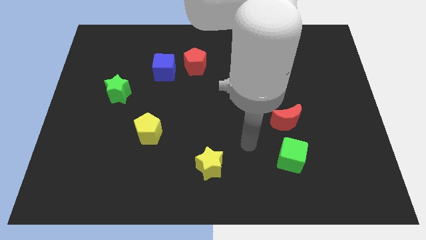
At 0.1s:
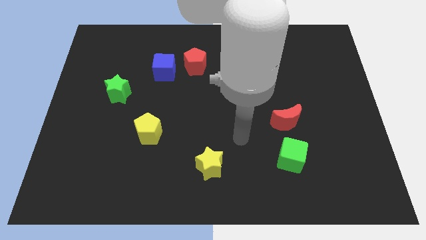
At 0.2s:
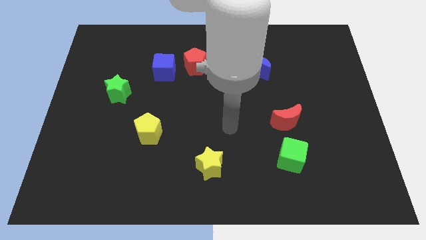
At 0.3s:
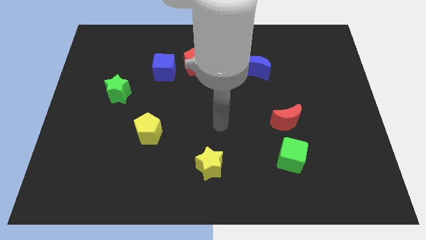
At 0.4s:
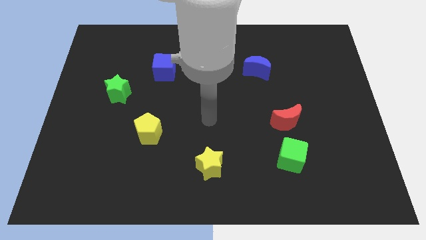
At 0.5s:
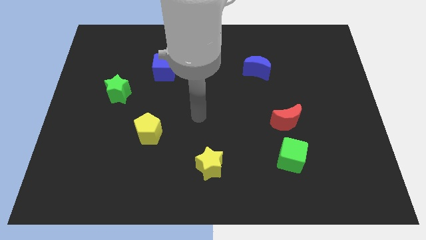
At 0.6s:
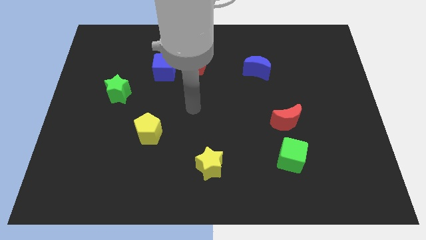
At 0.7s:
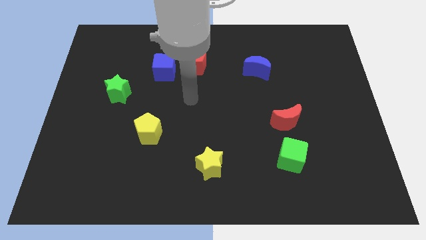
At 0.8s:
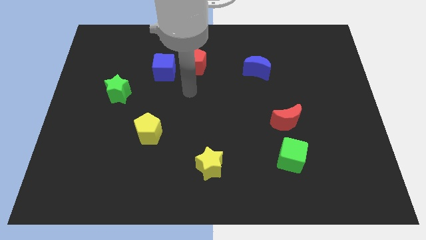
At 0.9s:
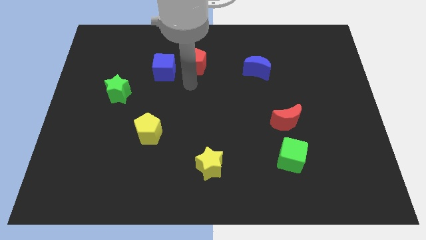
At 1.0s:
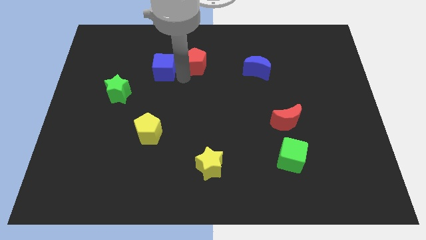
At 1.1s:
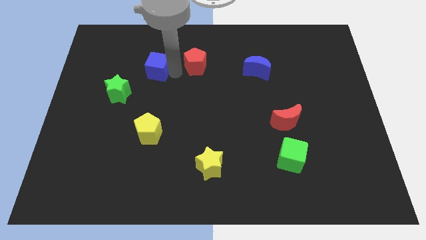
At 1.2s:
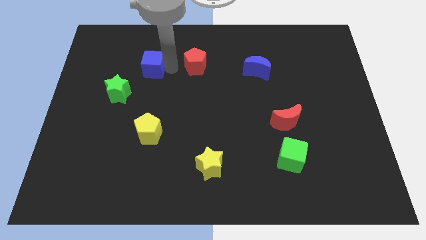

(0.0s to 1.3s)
separate the red pentagon from the blue cube

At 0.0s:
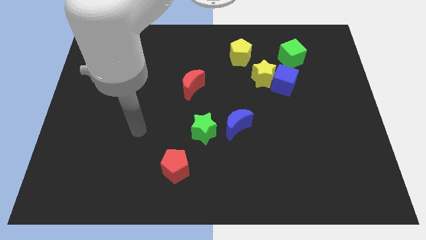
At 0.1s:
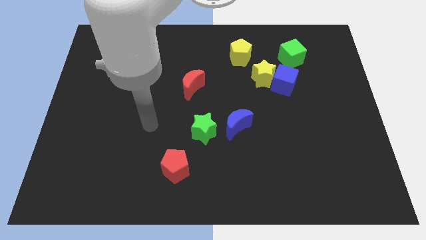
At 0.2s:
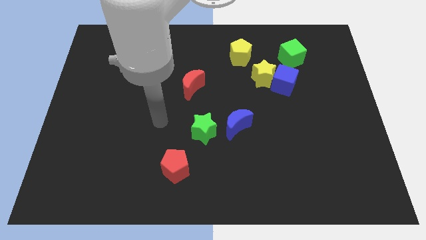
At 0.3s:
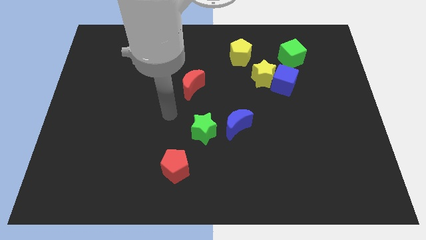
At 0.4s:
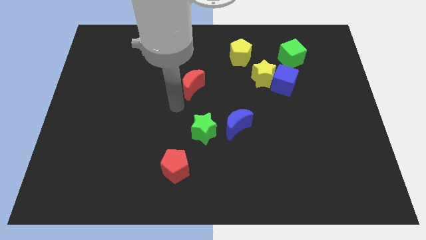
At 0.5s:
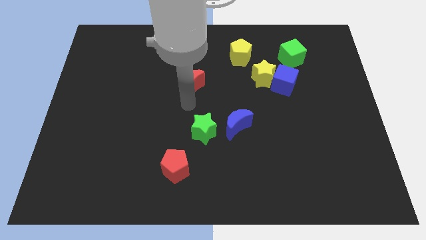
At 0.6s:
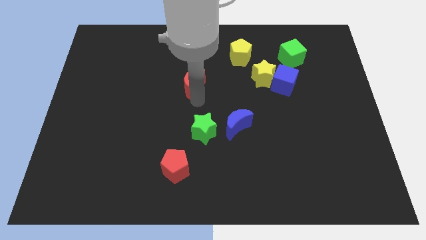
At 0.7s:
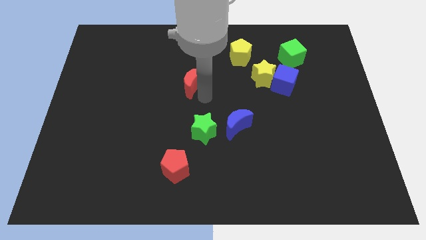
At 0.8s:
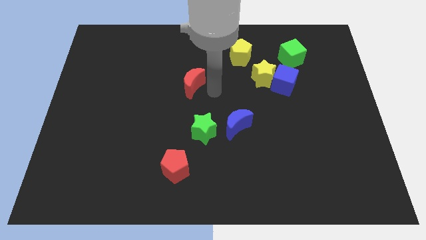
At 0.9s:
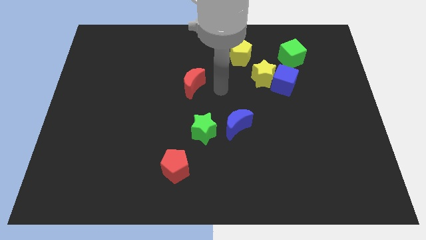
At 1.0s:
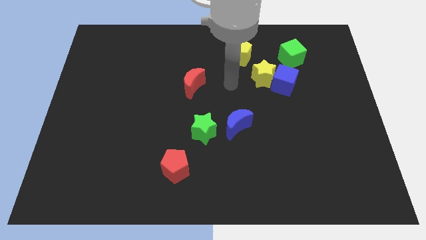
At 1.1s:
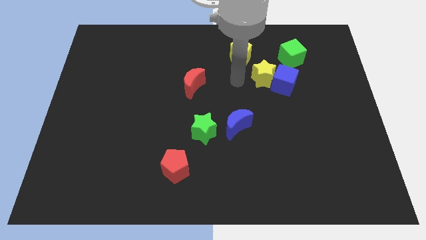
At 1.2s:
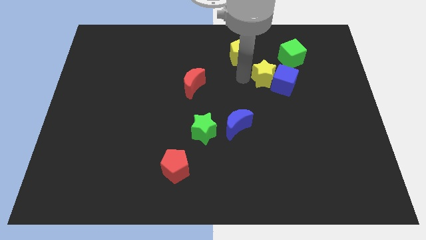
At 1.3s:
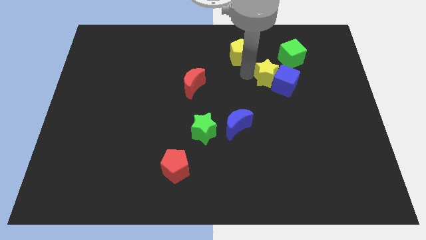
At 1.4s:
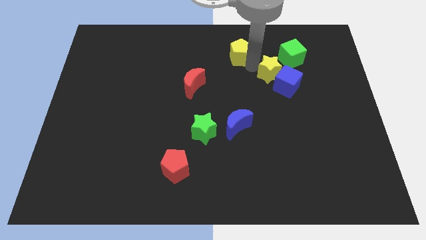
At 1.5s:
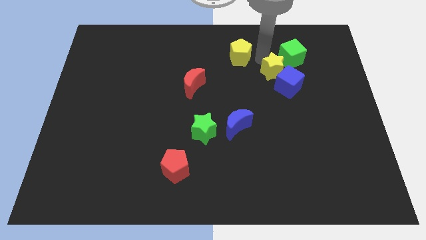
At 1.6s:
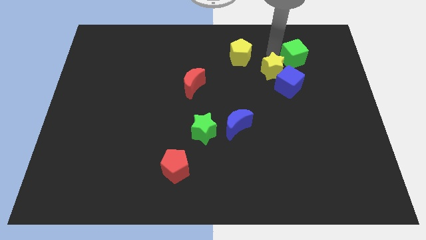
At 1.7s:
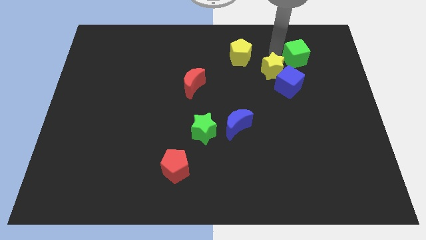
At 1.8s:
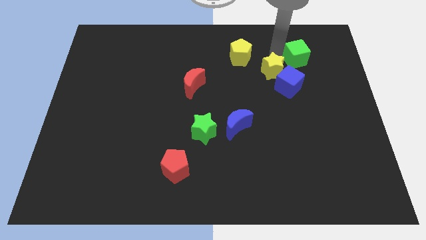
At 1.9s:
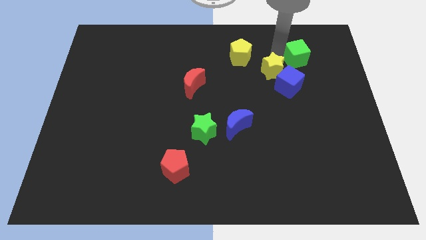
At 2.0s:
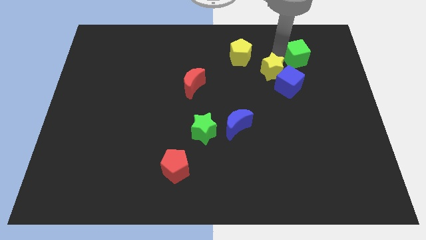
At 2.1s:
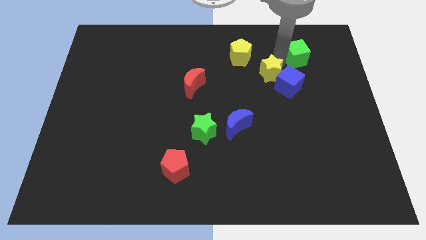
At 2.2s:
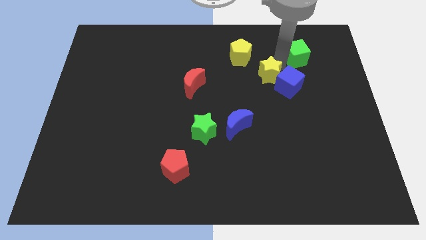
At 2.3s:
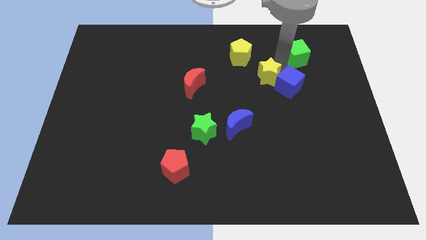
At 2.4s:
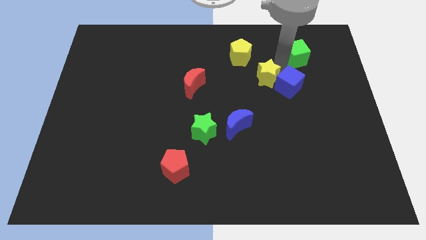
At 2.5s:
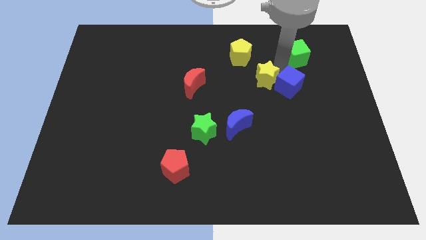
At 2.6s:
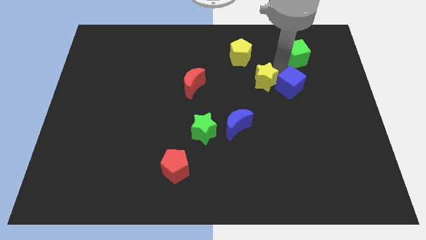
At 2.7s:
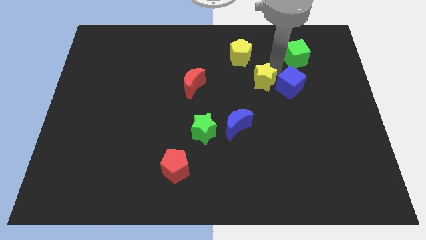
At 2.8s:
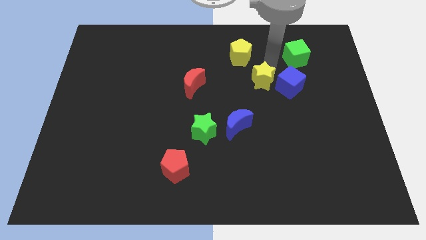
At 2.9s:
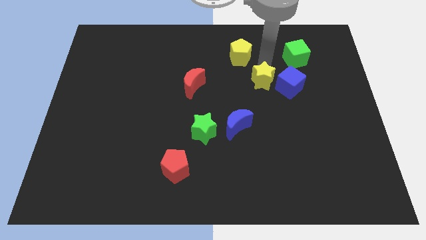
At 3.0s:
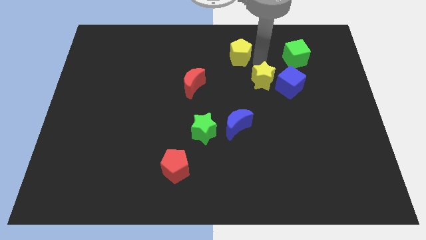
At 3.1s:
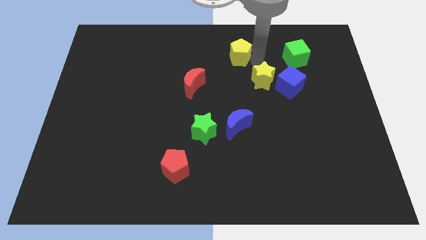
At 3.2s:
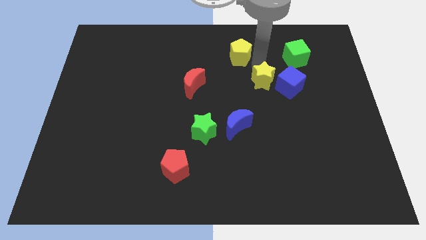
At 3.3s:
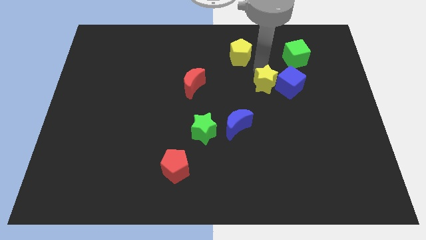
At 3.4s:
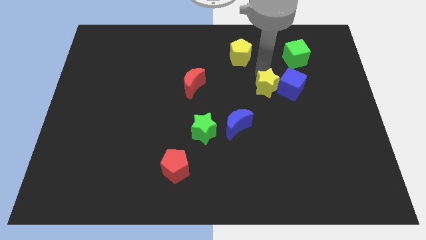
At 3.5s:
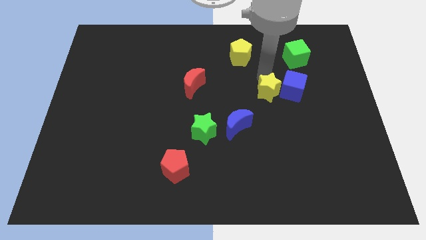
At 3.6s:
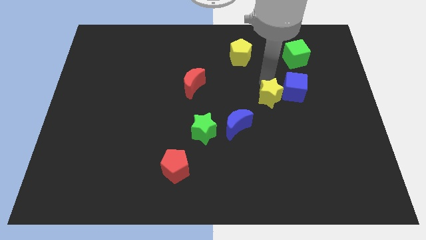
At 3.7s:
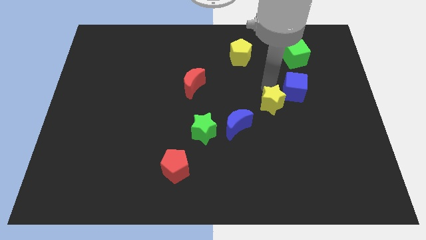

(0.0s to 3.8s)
pull the yellow star apart from the blue cube and yellow pentagon

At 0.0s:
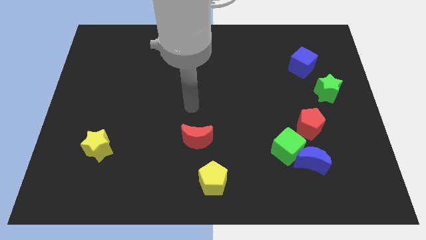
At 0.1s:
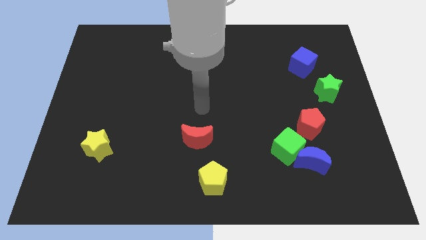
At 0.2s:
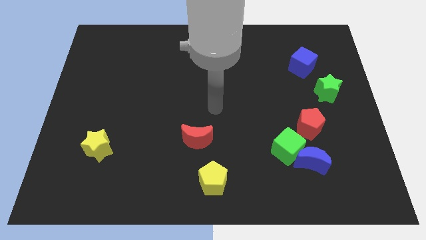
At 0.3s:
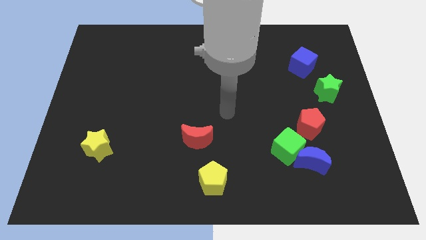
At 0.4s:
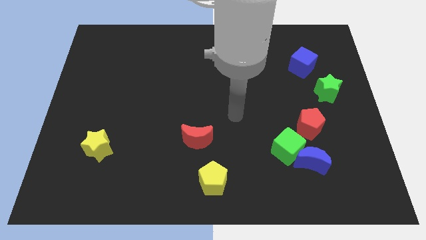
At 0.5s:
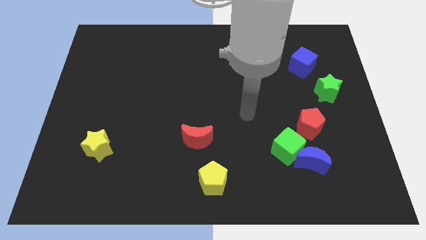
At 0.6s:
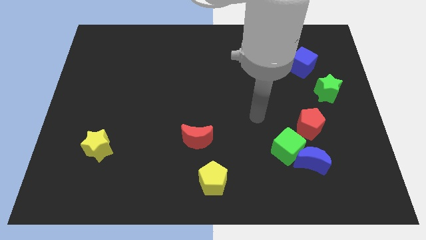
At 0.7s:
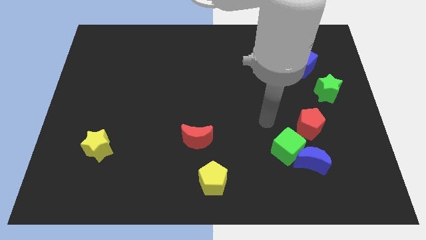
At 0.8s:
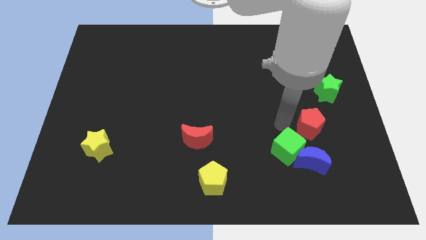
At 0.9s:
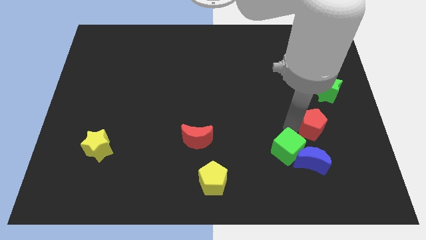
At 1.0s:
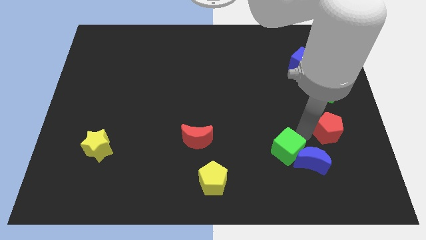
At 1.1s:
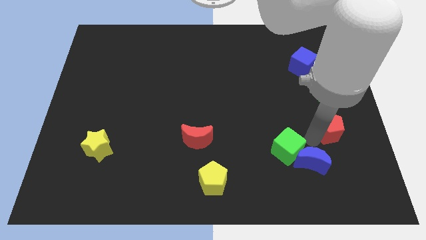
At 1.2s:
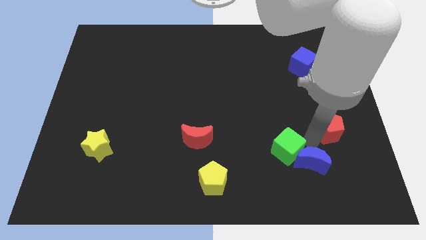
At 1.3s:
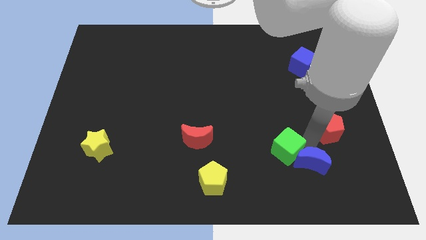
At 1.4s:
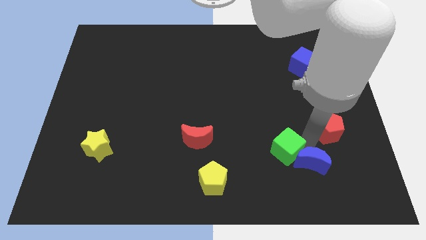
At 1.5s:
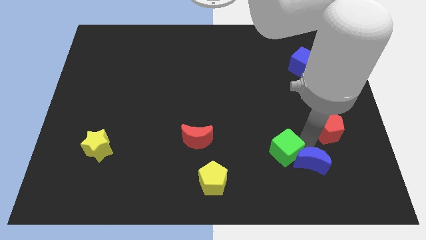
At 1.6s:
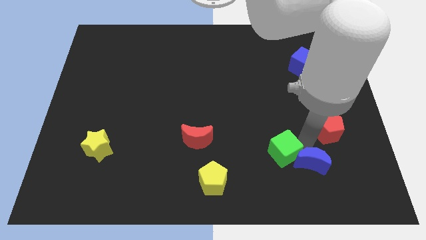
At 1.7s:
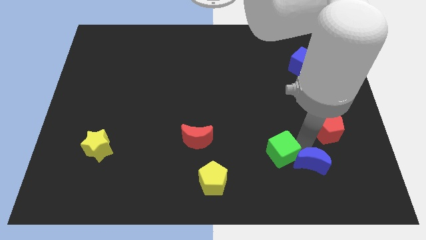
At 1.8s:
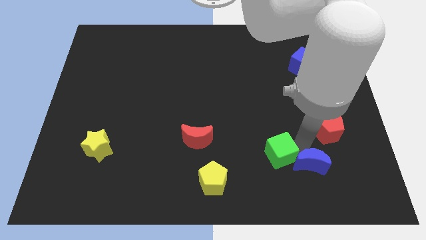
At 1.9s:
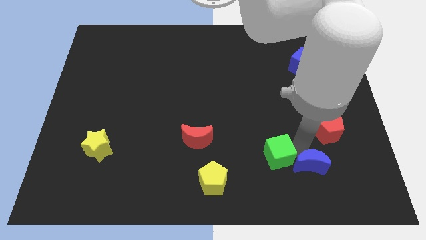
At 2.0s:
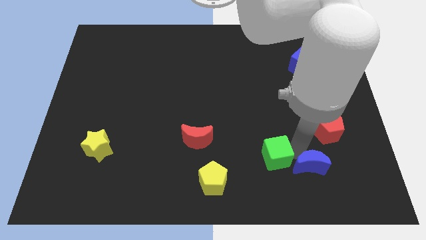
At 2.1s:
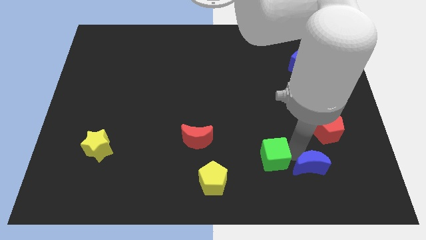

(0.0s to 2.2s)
pull the green cube apart from the blue moon and red pentagon

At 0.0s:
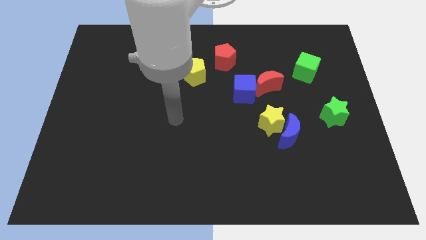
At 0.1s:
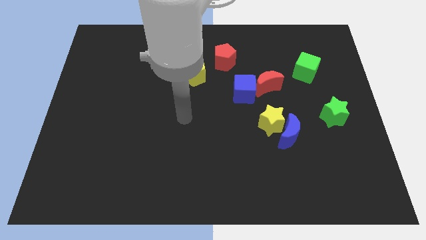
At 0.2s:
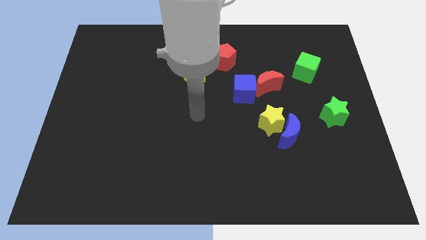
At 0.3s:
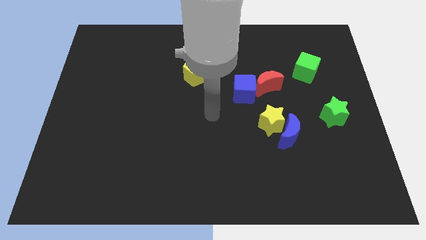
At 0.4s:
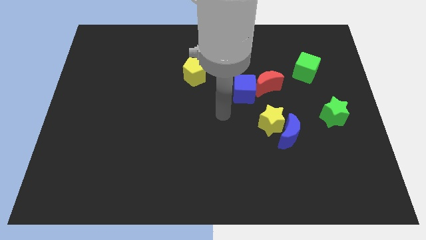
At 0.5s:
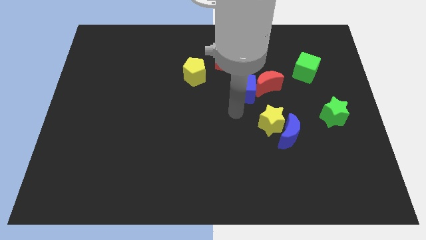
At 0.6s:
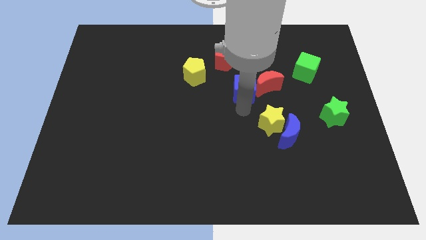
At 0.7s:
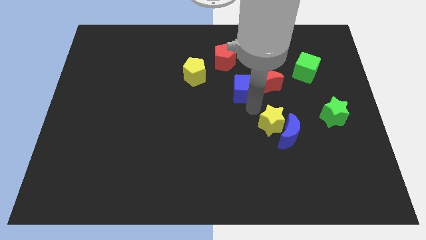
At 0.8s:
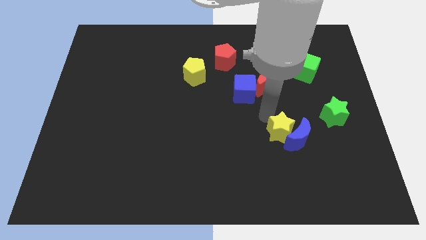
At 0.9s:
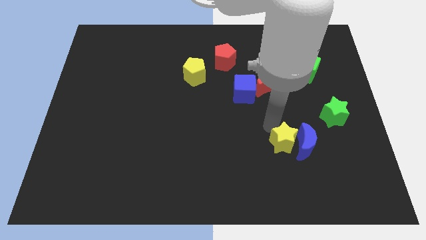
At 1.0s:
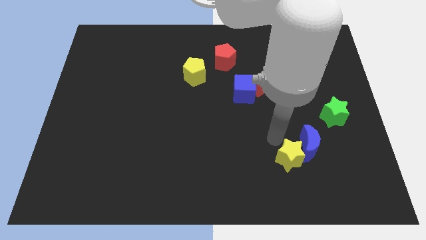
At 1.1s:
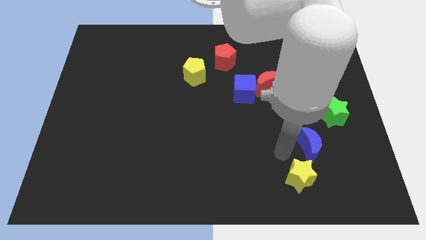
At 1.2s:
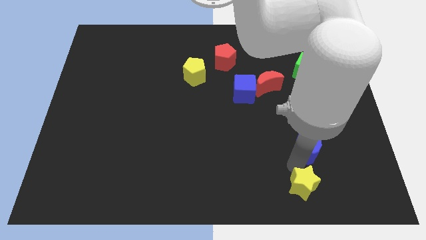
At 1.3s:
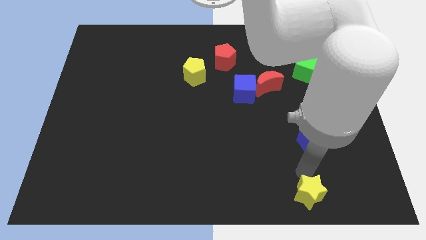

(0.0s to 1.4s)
pull the blue moon apart from the yellow star

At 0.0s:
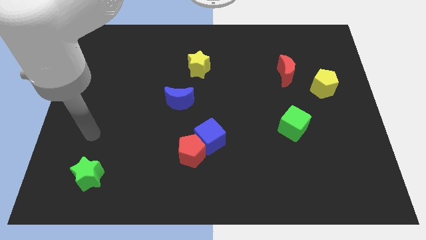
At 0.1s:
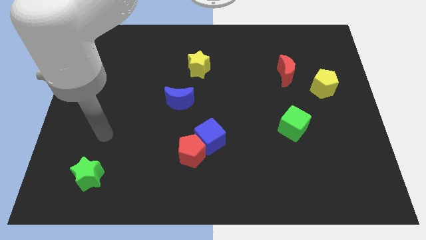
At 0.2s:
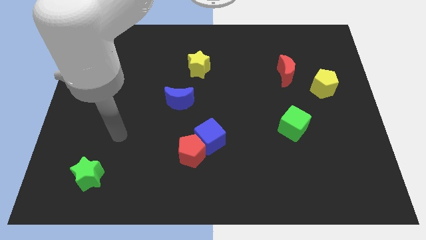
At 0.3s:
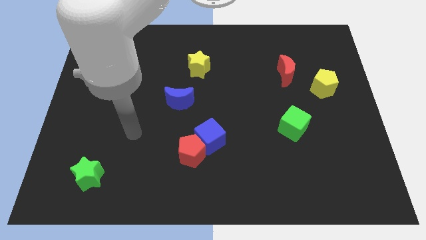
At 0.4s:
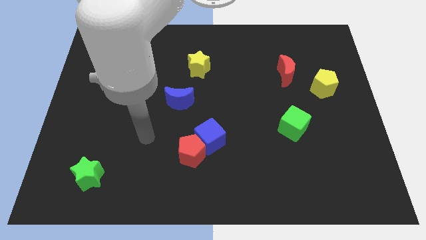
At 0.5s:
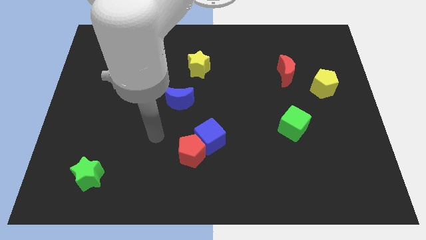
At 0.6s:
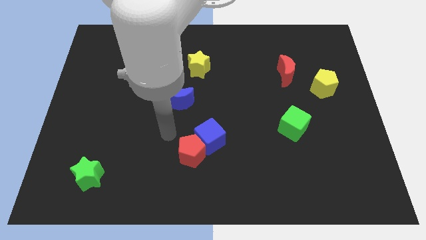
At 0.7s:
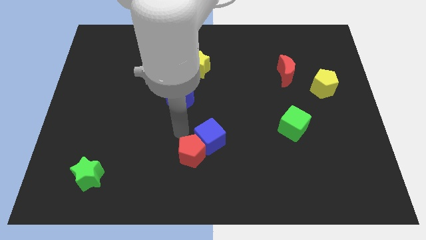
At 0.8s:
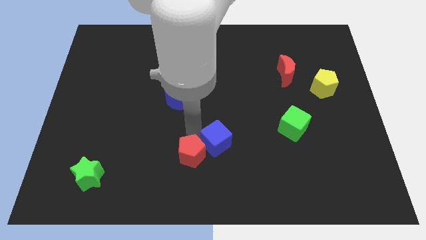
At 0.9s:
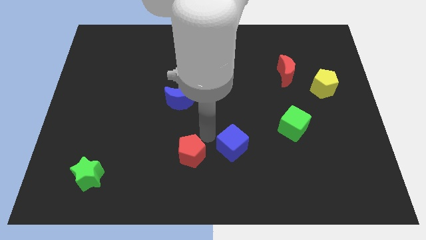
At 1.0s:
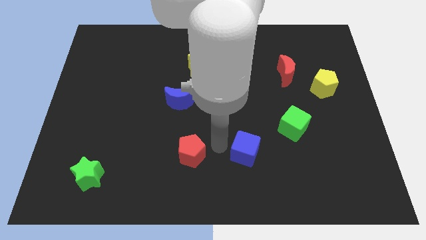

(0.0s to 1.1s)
move the red pentagon away from the blue cube
